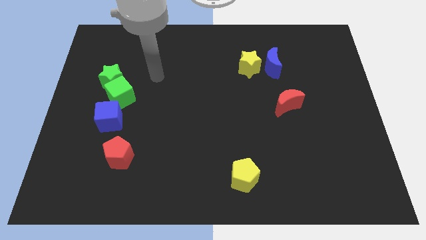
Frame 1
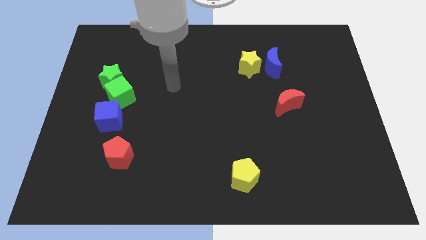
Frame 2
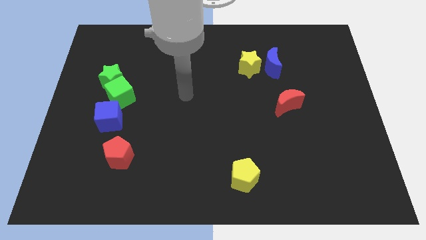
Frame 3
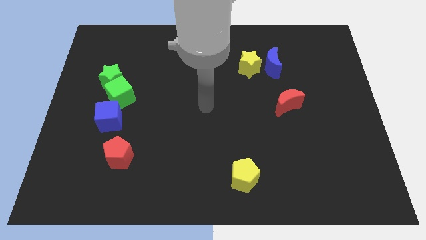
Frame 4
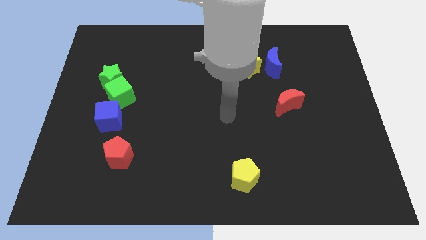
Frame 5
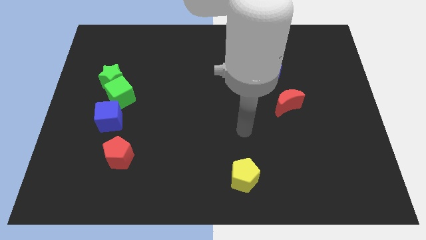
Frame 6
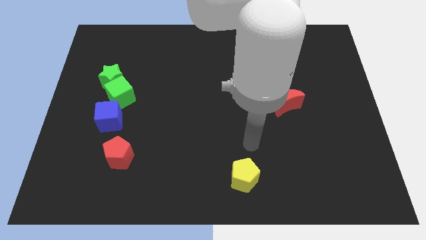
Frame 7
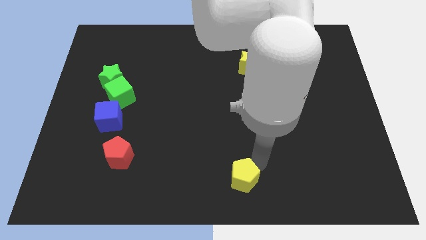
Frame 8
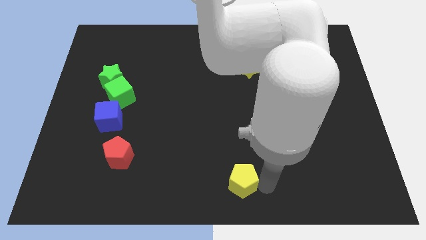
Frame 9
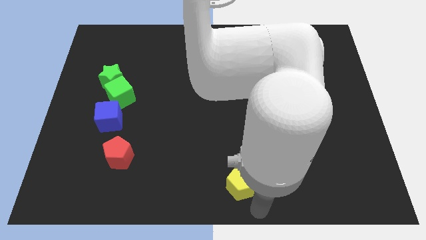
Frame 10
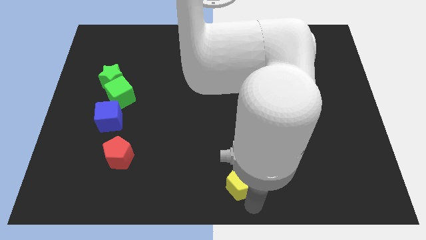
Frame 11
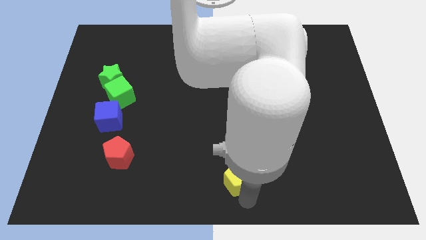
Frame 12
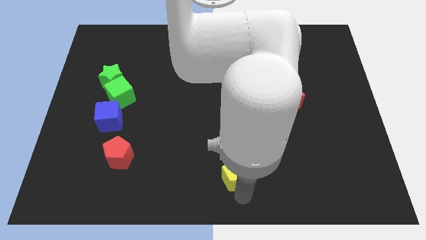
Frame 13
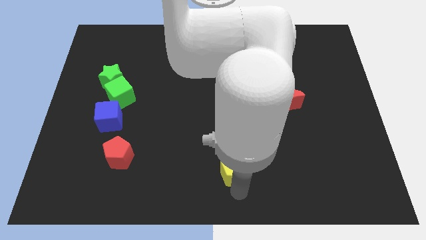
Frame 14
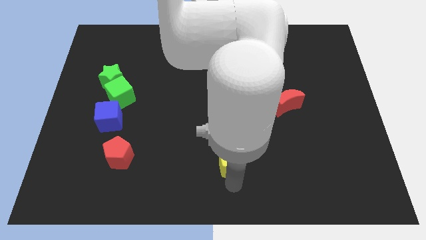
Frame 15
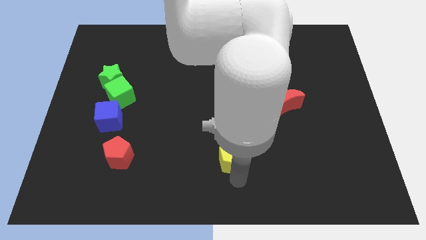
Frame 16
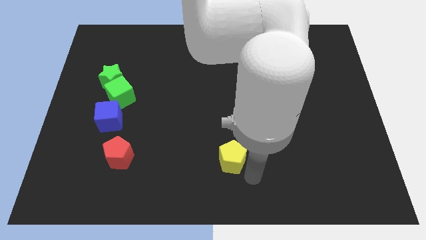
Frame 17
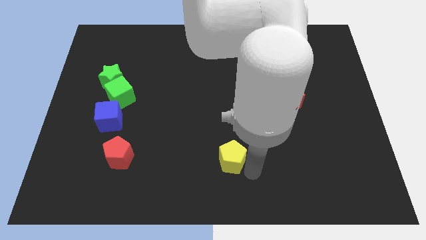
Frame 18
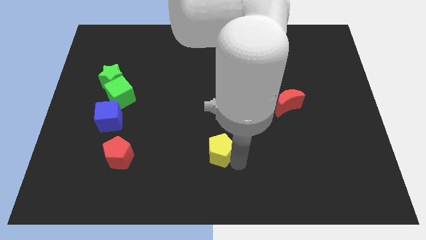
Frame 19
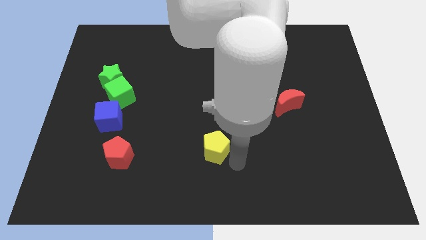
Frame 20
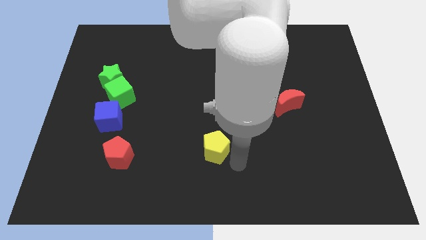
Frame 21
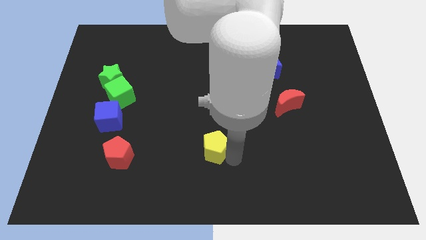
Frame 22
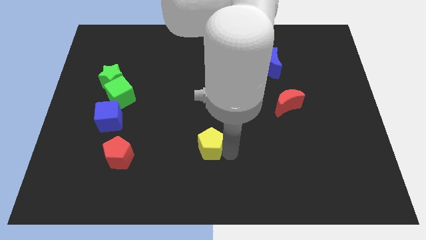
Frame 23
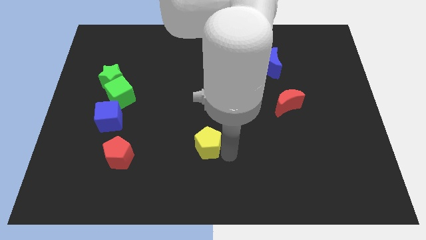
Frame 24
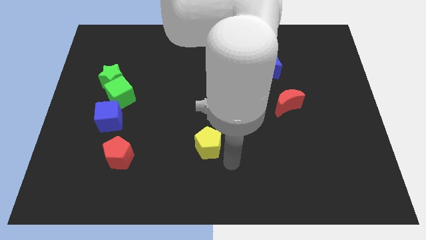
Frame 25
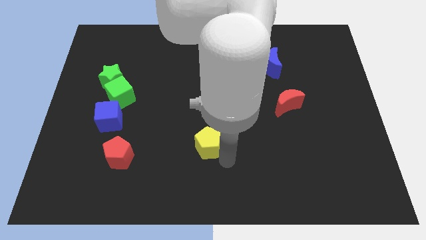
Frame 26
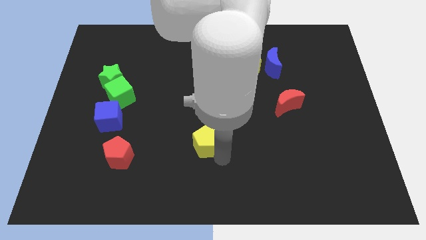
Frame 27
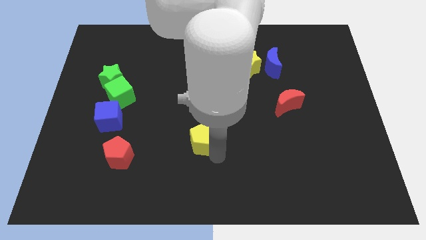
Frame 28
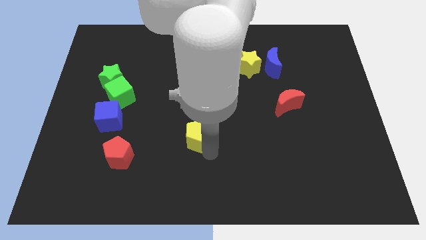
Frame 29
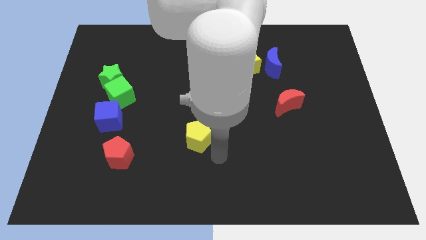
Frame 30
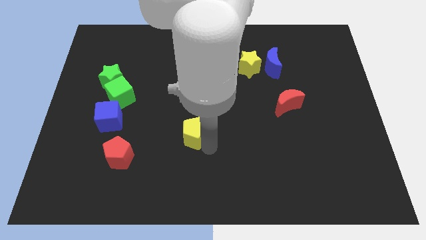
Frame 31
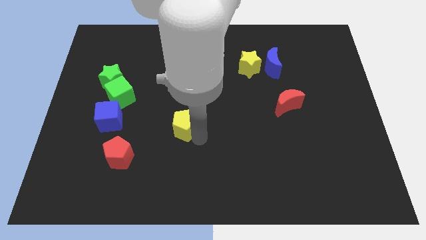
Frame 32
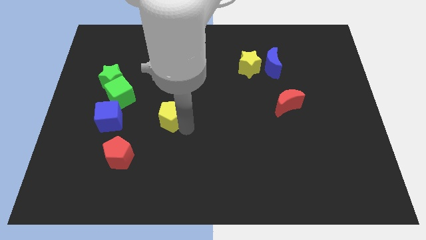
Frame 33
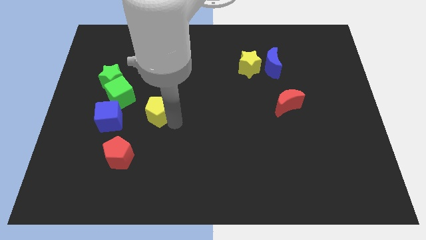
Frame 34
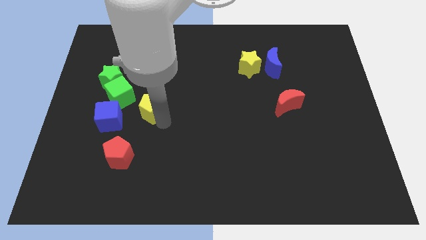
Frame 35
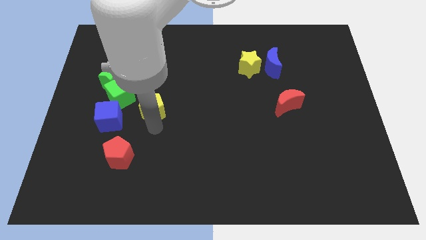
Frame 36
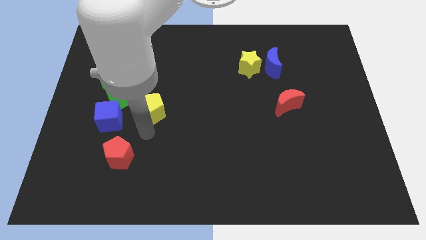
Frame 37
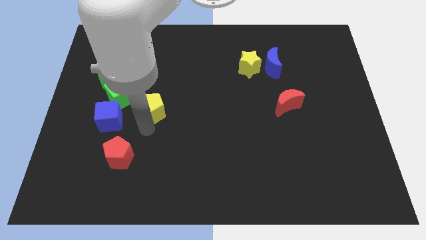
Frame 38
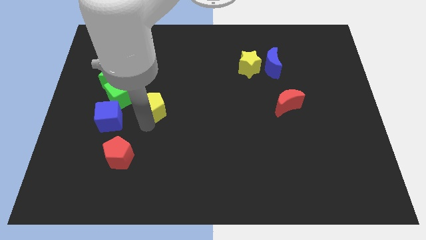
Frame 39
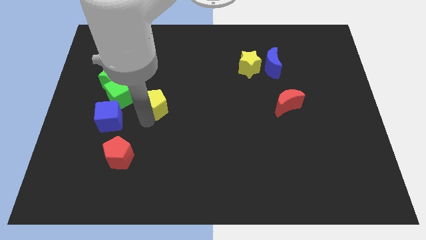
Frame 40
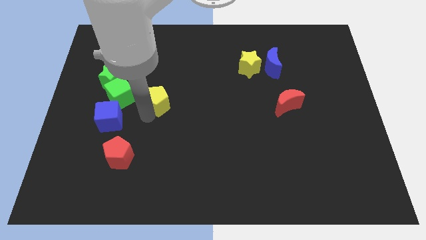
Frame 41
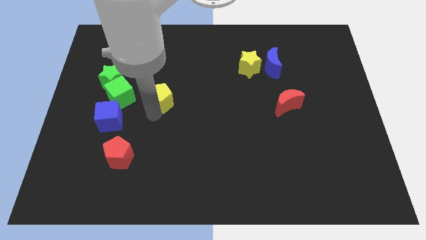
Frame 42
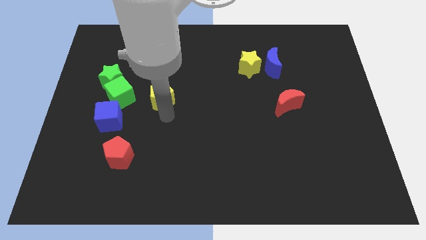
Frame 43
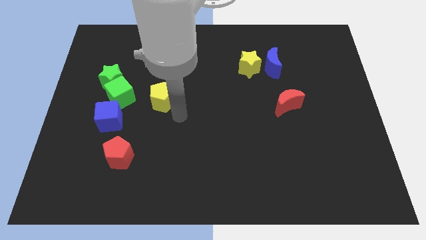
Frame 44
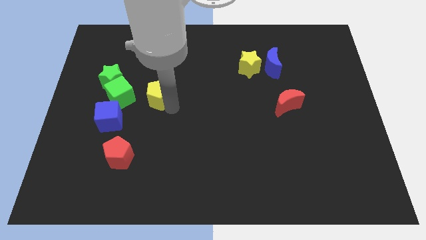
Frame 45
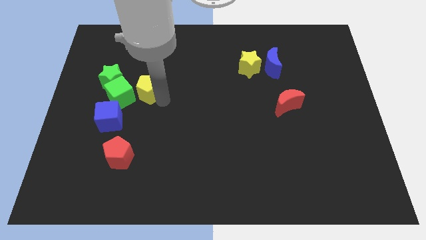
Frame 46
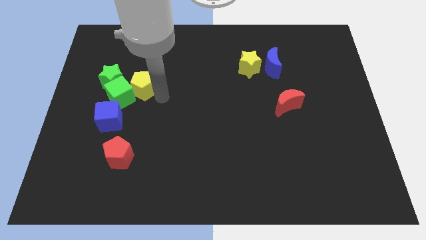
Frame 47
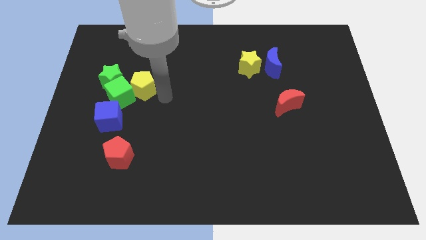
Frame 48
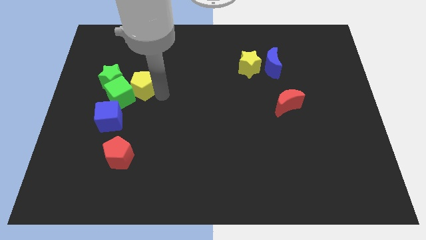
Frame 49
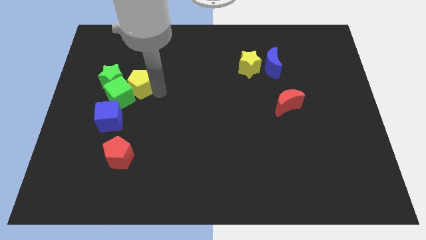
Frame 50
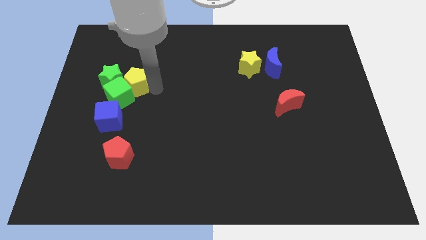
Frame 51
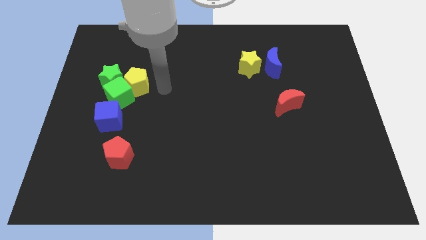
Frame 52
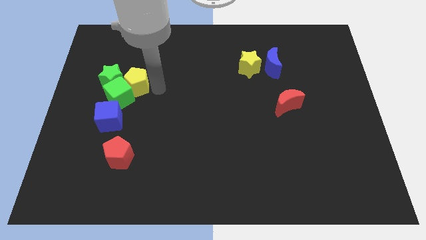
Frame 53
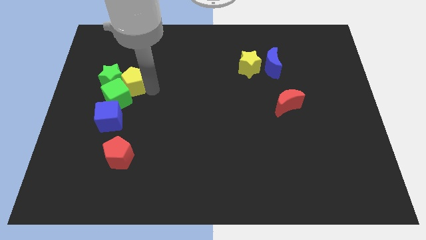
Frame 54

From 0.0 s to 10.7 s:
push the yellow pentagon to the green star

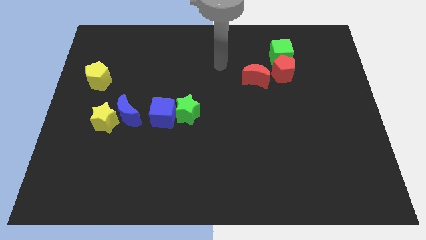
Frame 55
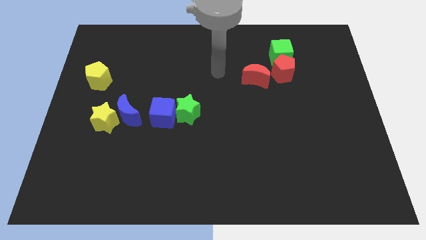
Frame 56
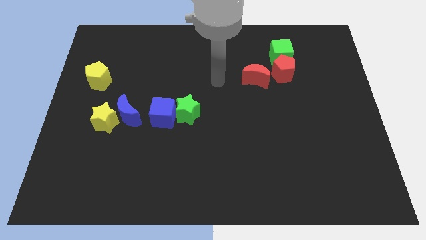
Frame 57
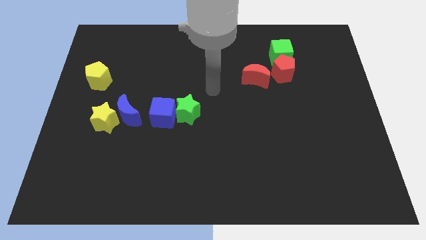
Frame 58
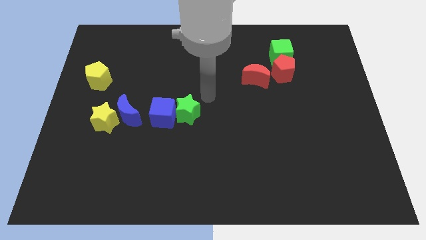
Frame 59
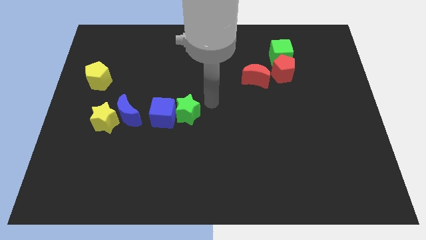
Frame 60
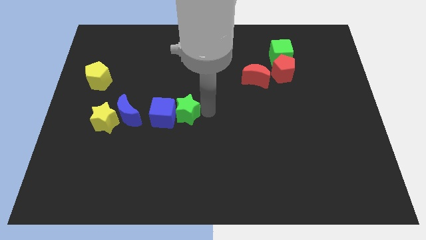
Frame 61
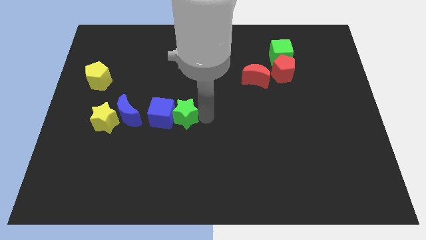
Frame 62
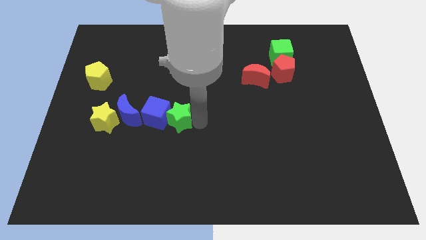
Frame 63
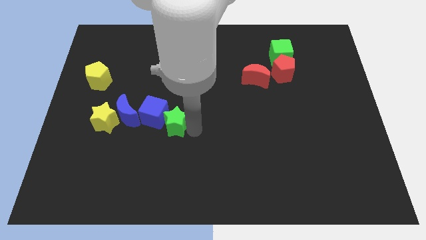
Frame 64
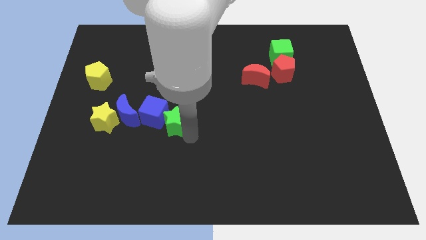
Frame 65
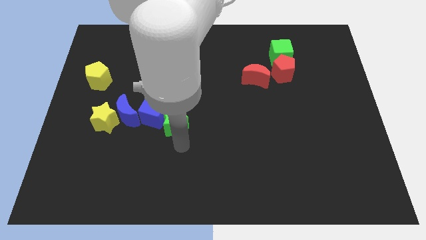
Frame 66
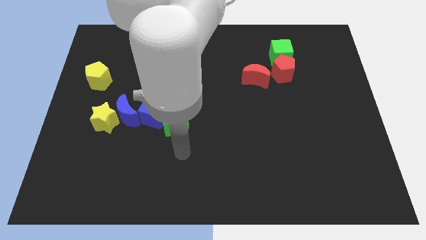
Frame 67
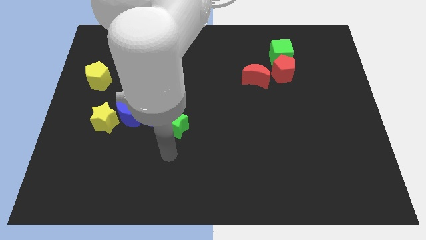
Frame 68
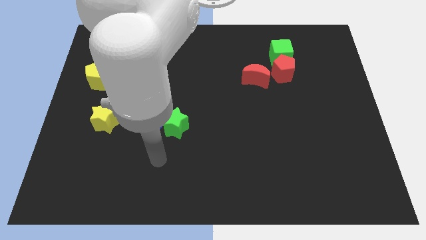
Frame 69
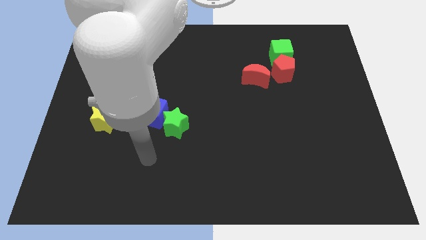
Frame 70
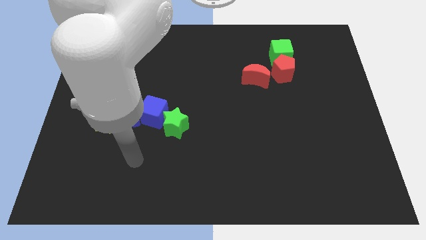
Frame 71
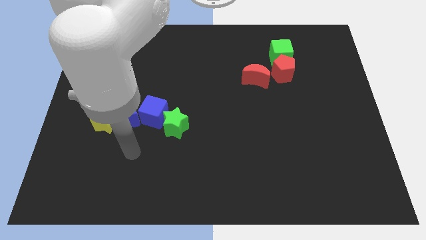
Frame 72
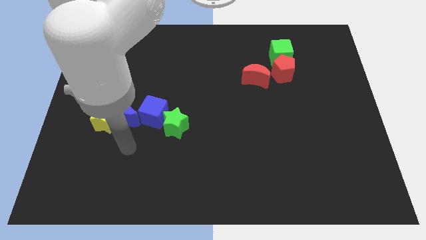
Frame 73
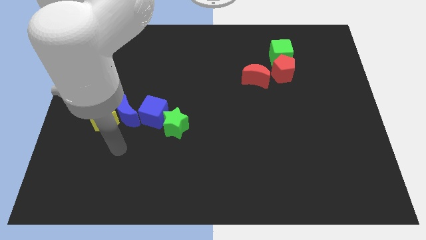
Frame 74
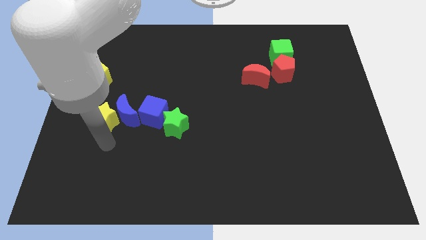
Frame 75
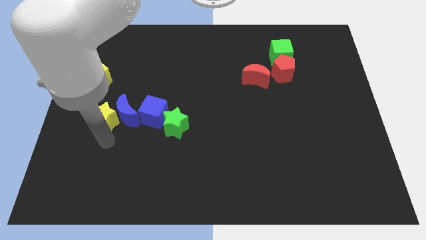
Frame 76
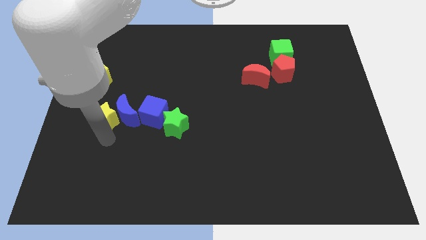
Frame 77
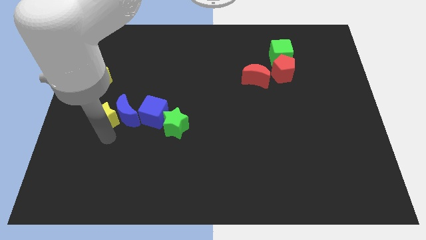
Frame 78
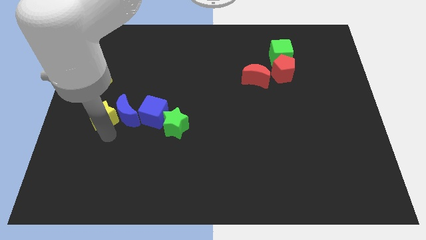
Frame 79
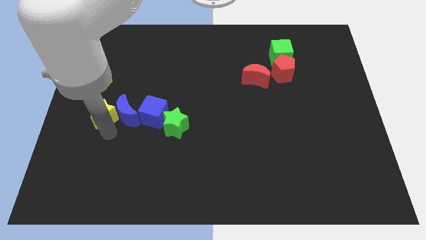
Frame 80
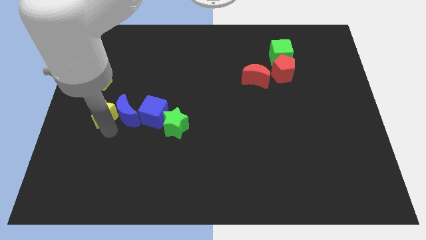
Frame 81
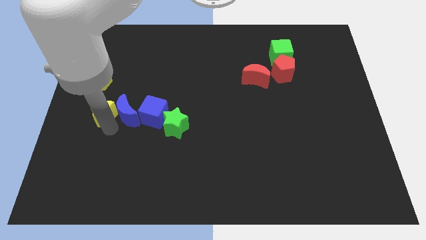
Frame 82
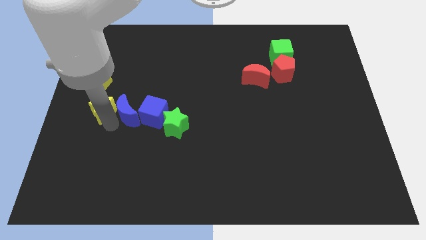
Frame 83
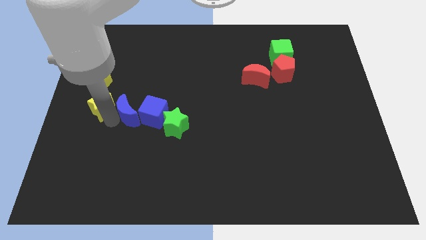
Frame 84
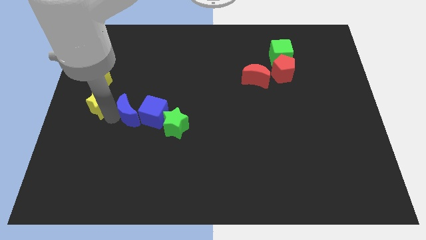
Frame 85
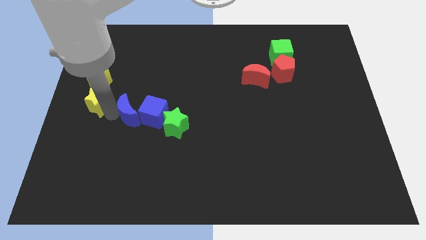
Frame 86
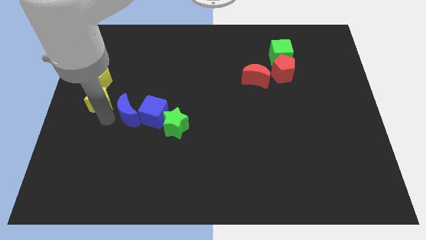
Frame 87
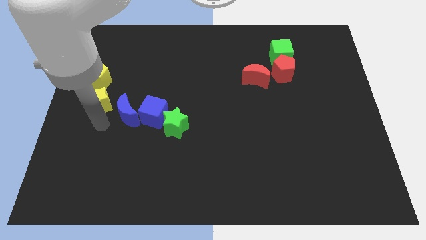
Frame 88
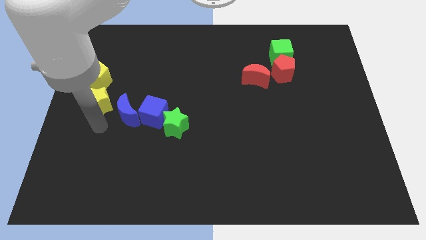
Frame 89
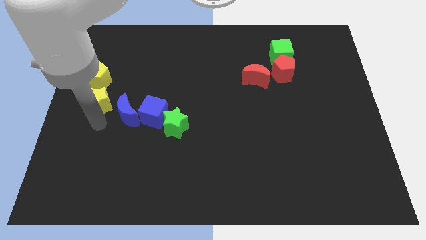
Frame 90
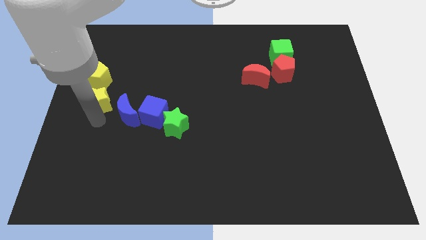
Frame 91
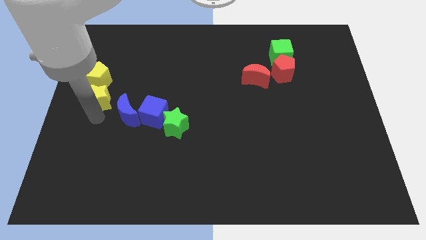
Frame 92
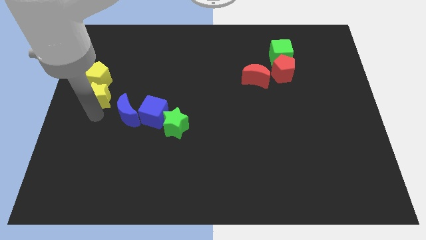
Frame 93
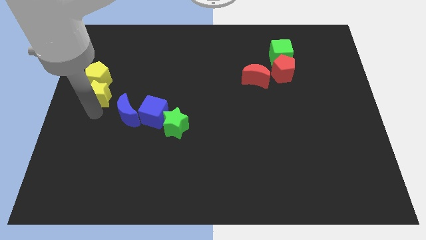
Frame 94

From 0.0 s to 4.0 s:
push the yellow star next to the yellow pentagon
